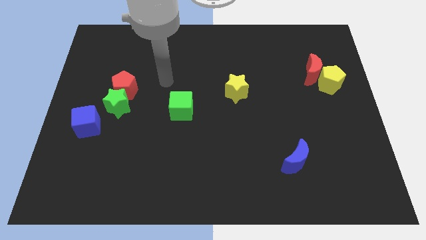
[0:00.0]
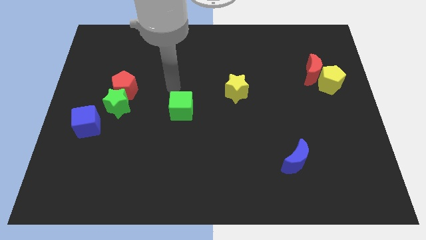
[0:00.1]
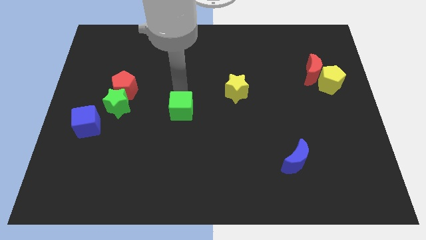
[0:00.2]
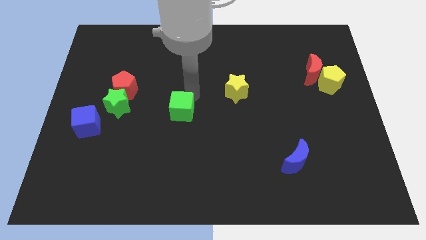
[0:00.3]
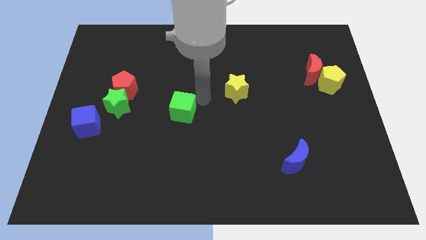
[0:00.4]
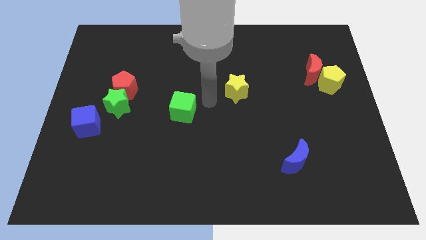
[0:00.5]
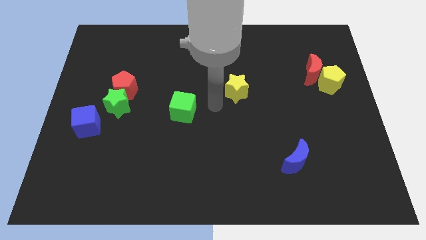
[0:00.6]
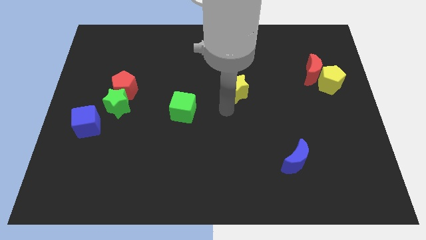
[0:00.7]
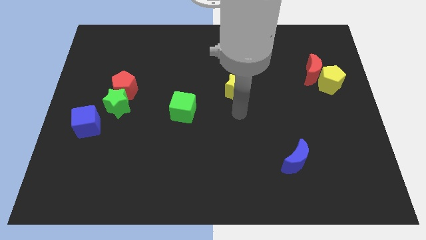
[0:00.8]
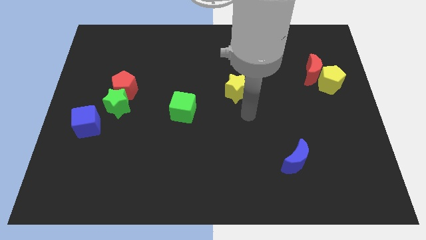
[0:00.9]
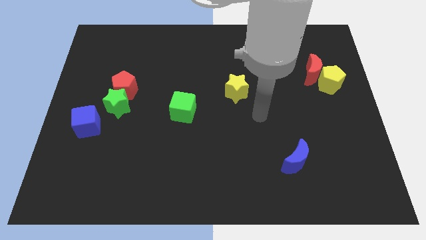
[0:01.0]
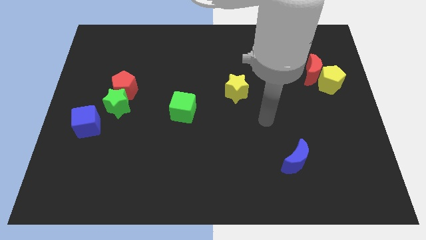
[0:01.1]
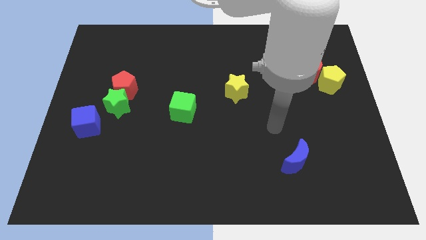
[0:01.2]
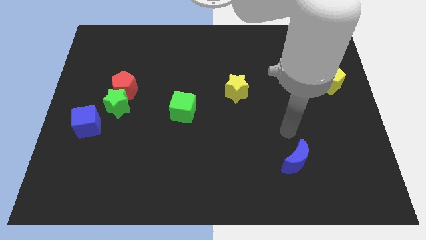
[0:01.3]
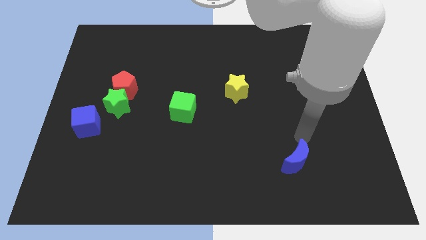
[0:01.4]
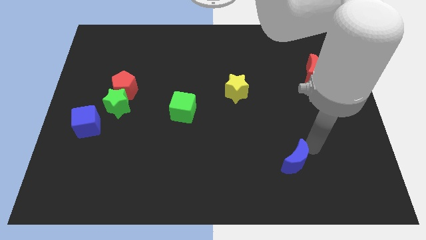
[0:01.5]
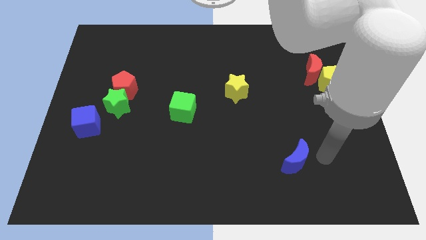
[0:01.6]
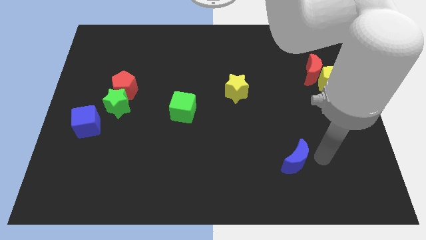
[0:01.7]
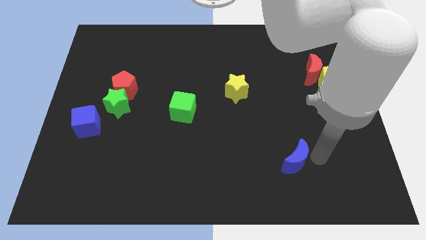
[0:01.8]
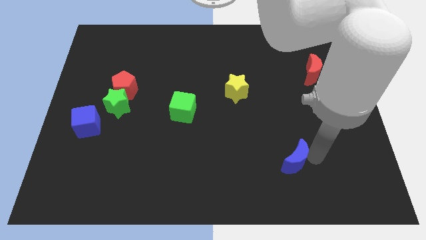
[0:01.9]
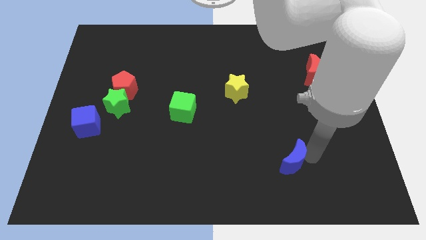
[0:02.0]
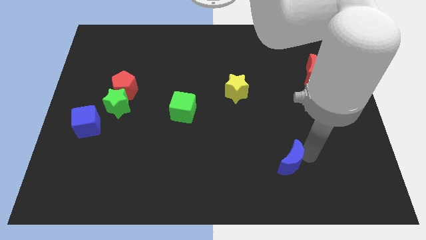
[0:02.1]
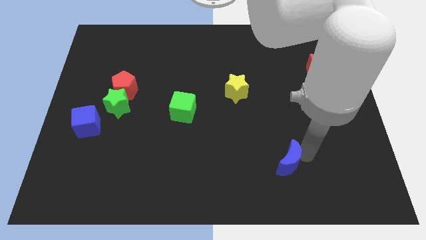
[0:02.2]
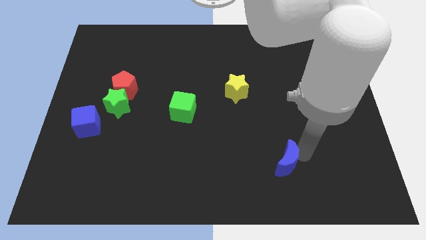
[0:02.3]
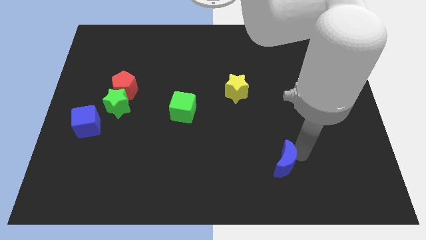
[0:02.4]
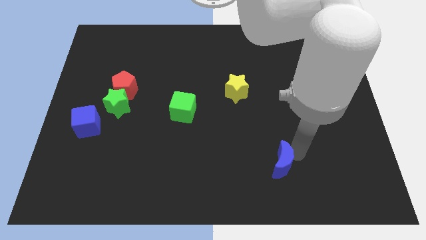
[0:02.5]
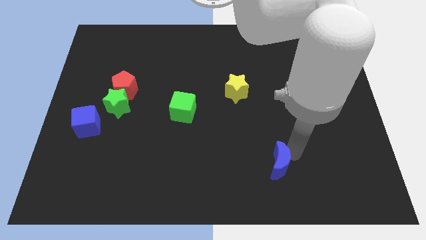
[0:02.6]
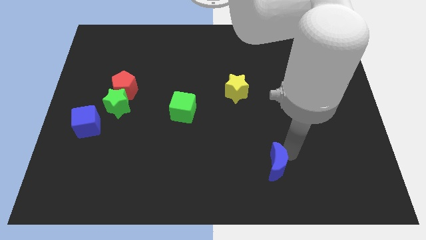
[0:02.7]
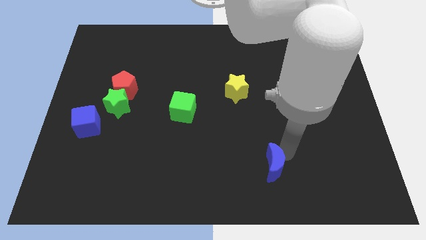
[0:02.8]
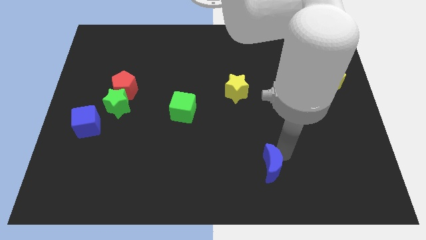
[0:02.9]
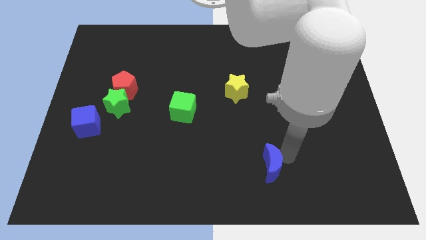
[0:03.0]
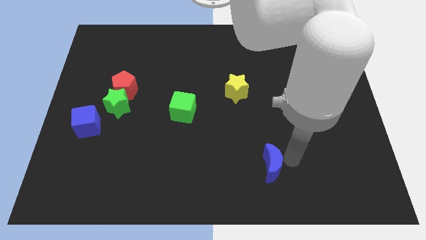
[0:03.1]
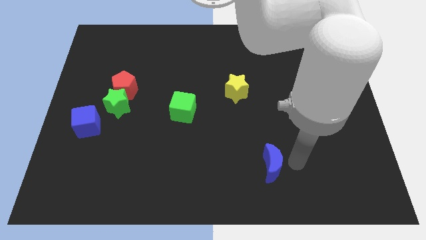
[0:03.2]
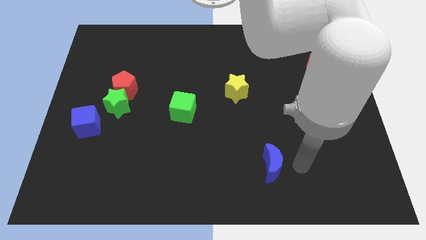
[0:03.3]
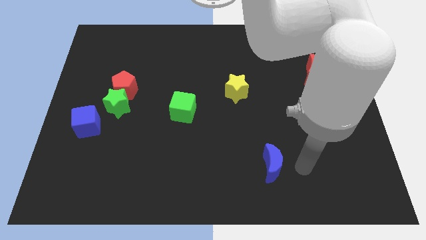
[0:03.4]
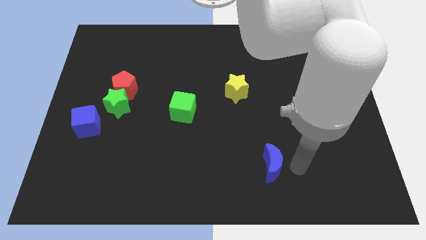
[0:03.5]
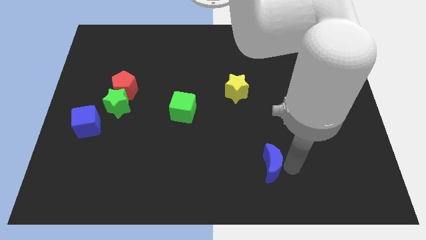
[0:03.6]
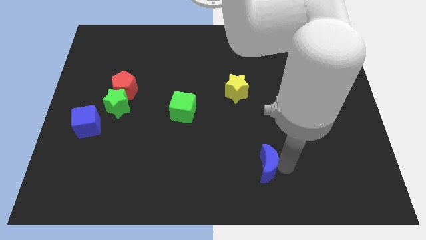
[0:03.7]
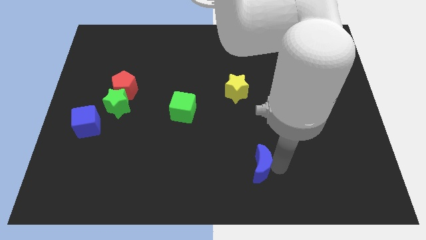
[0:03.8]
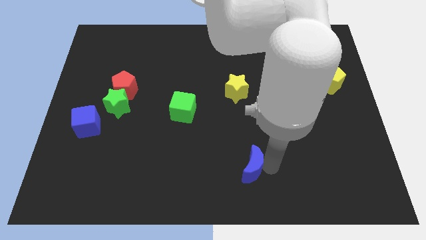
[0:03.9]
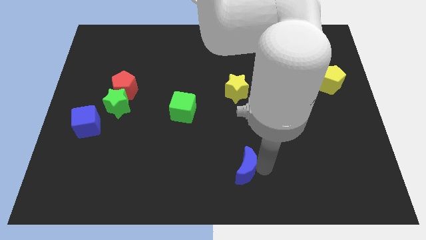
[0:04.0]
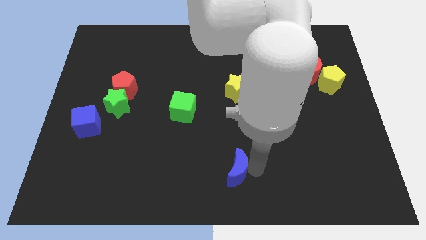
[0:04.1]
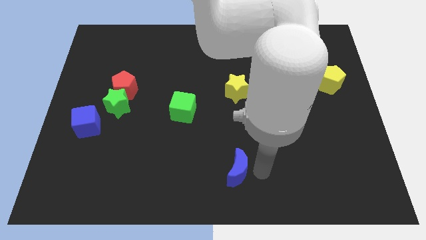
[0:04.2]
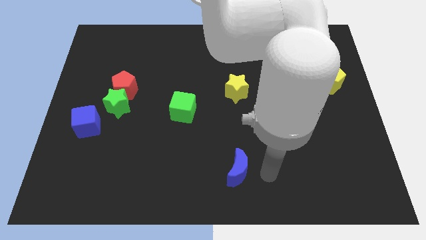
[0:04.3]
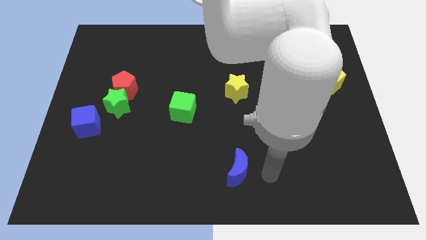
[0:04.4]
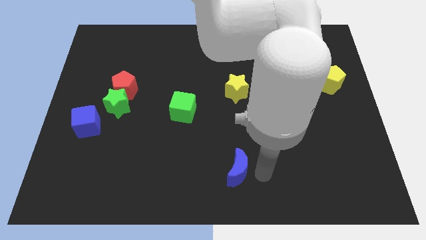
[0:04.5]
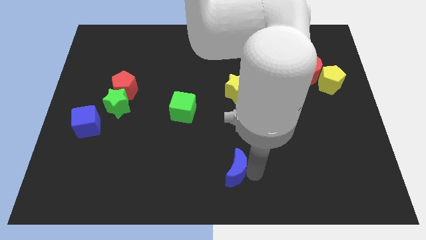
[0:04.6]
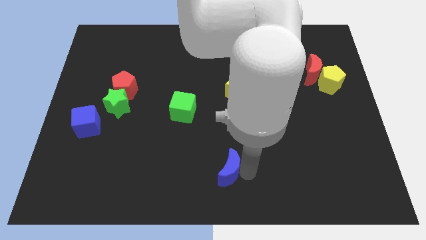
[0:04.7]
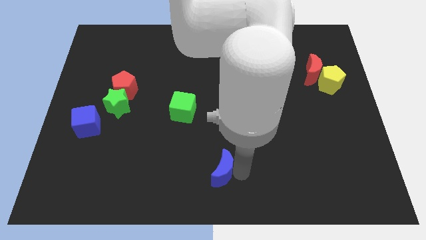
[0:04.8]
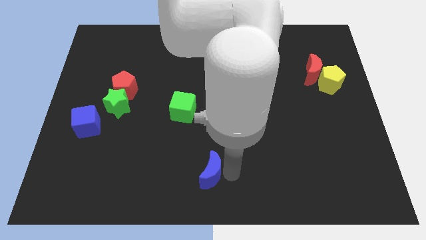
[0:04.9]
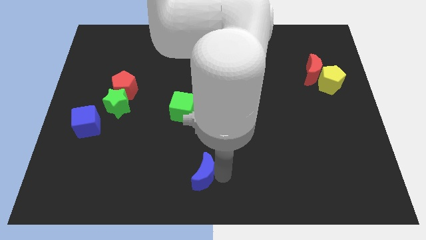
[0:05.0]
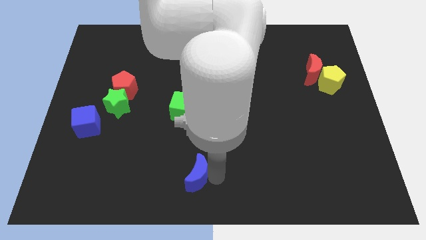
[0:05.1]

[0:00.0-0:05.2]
push the blue moon left

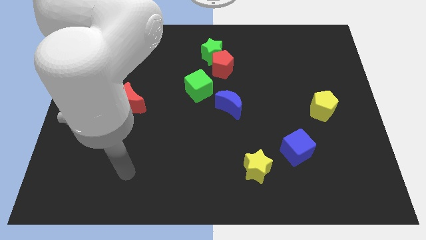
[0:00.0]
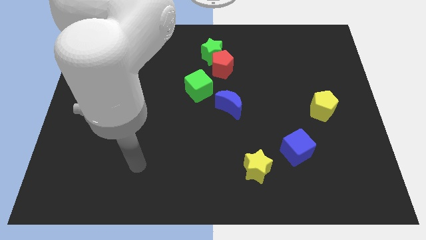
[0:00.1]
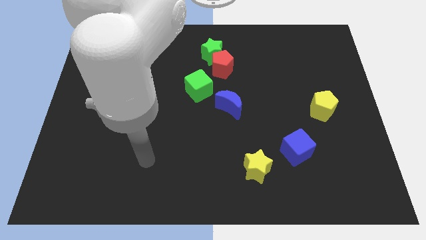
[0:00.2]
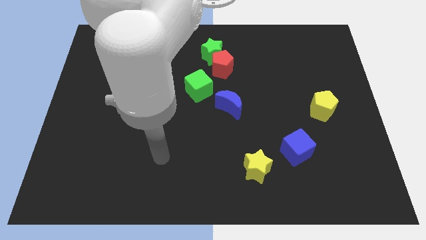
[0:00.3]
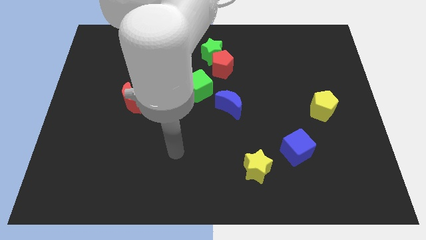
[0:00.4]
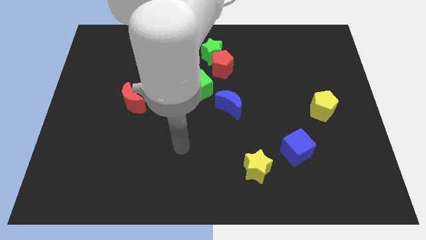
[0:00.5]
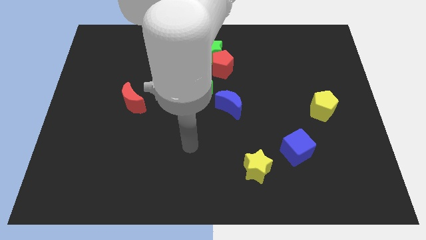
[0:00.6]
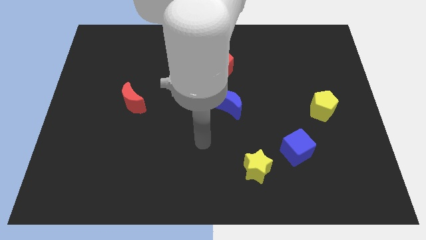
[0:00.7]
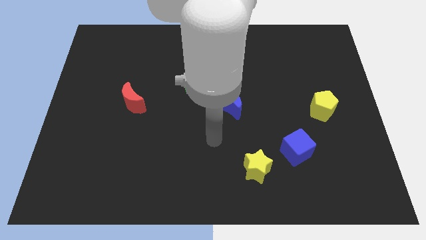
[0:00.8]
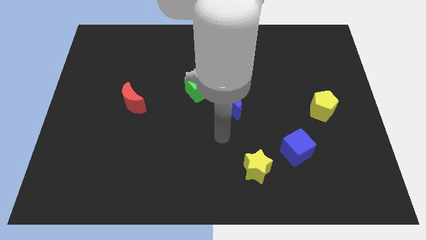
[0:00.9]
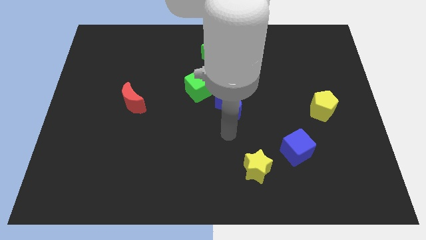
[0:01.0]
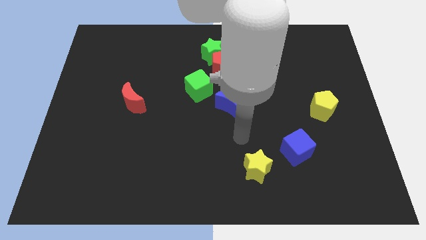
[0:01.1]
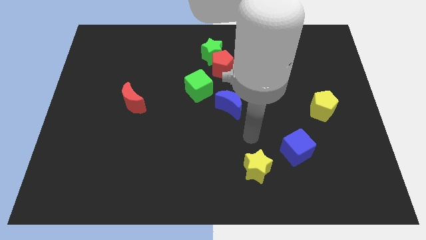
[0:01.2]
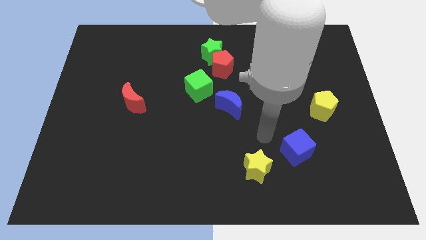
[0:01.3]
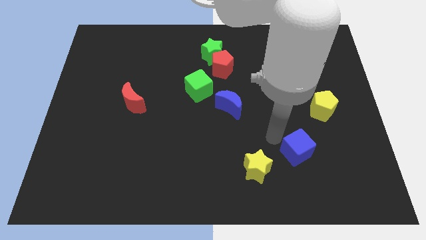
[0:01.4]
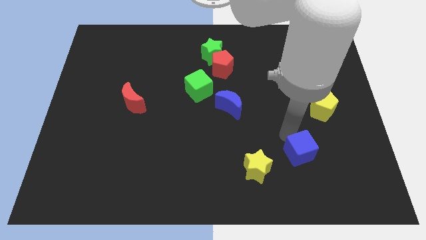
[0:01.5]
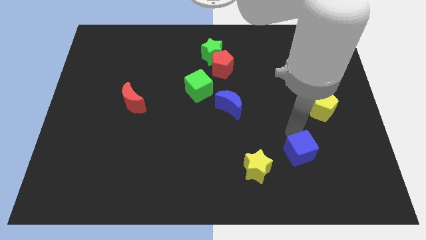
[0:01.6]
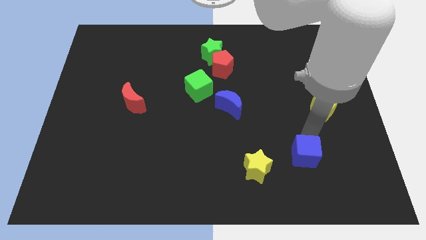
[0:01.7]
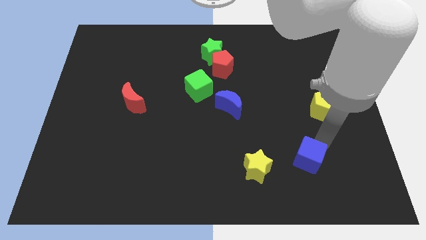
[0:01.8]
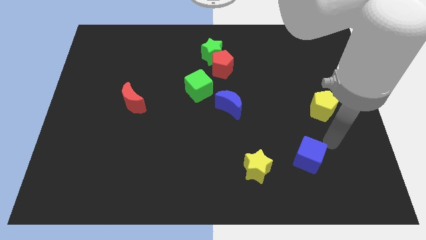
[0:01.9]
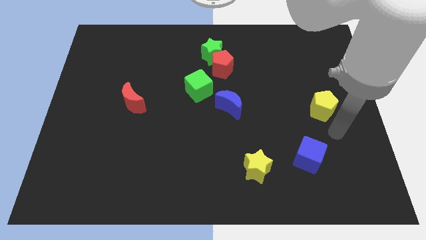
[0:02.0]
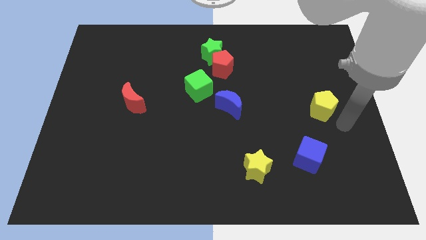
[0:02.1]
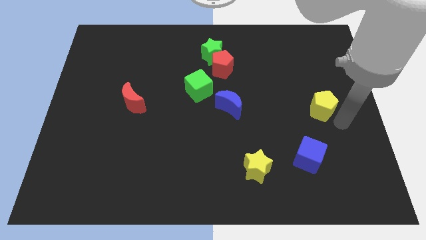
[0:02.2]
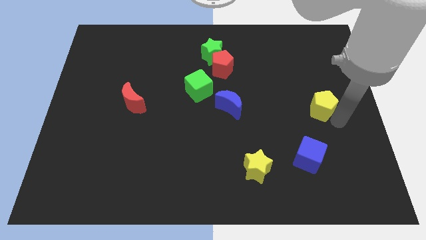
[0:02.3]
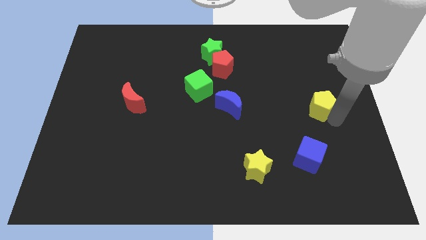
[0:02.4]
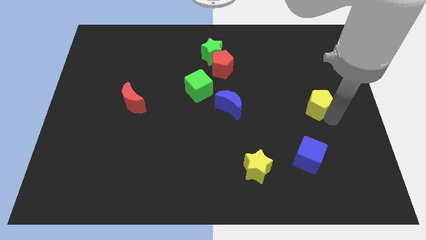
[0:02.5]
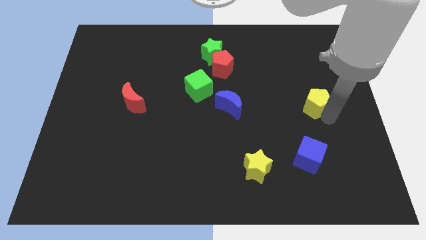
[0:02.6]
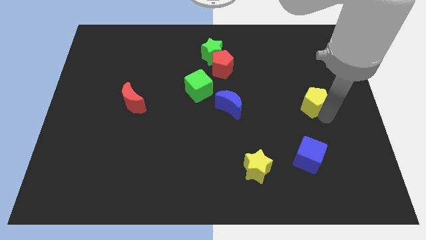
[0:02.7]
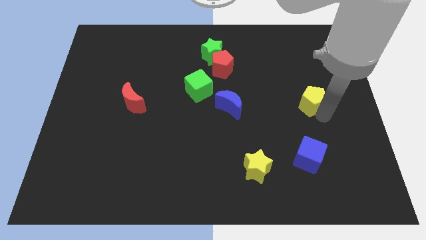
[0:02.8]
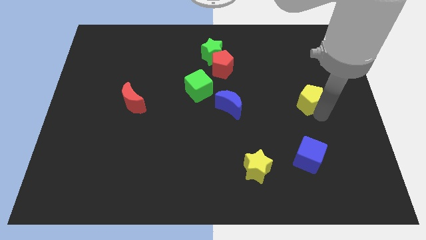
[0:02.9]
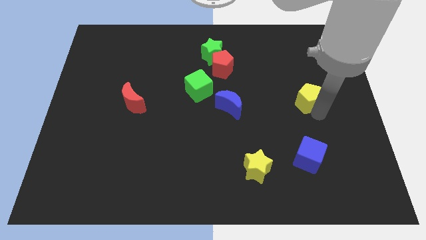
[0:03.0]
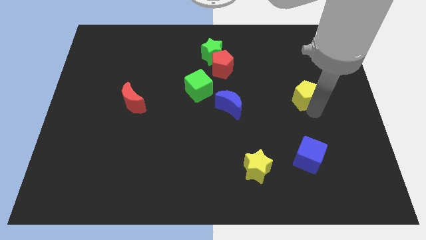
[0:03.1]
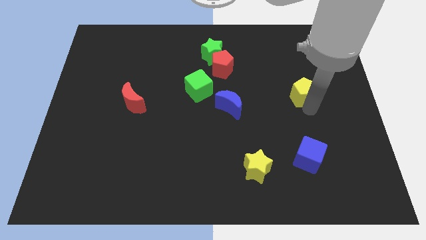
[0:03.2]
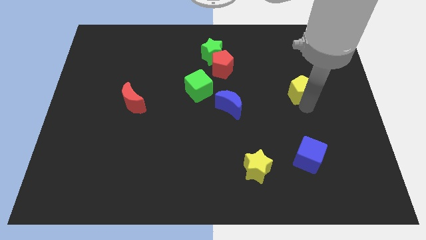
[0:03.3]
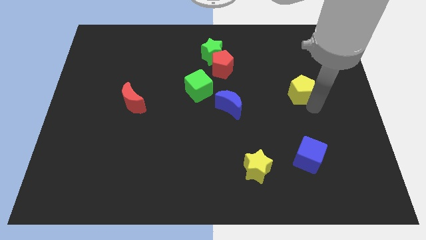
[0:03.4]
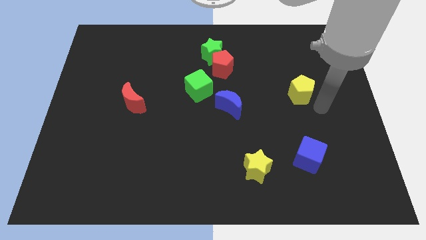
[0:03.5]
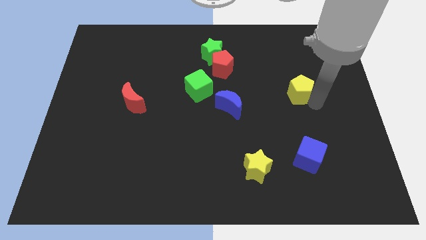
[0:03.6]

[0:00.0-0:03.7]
slightly slide the yellow pentagon upwards and left
